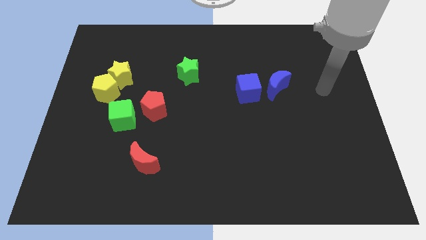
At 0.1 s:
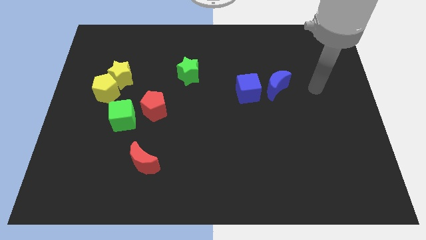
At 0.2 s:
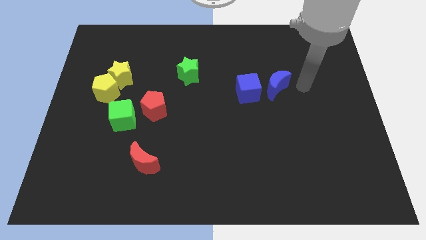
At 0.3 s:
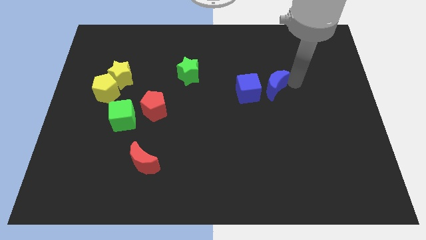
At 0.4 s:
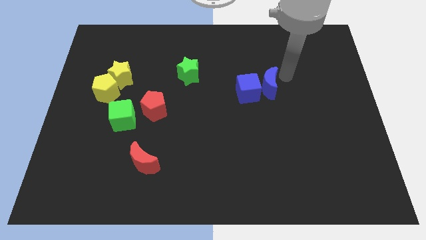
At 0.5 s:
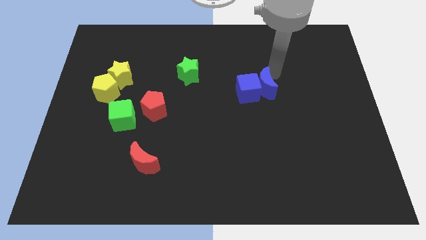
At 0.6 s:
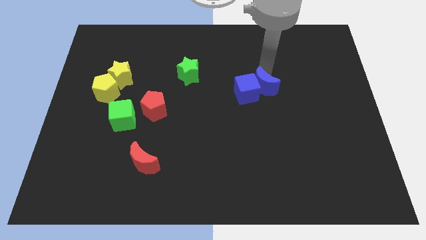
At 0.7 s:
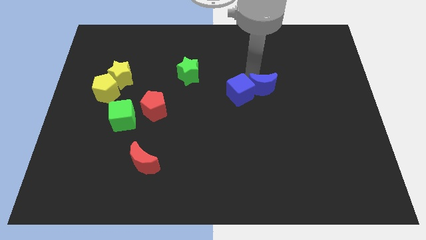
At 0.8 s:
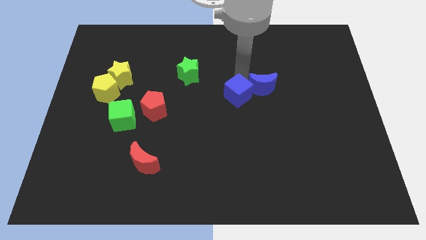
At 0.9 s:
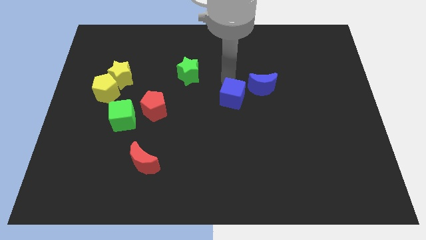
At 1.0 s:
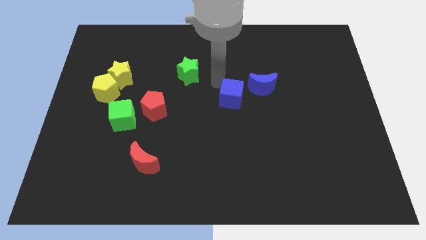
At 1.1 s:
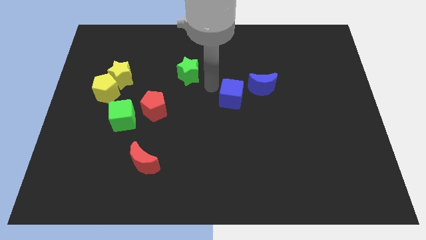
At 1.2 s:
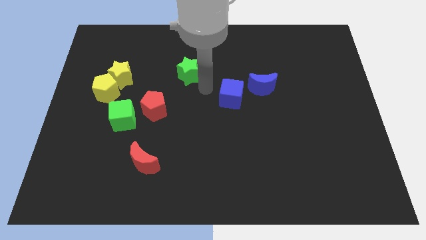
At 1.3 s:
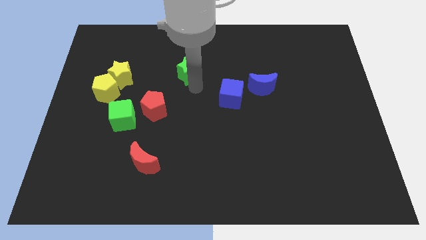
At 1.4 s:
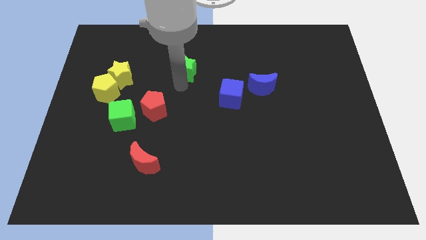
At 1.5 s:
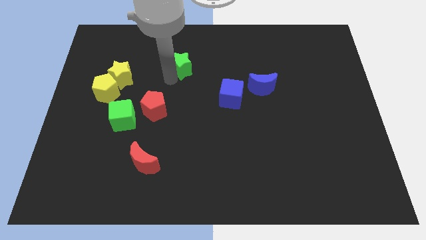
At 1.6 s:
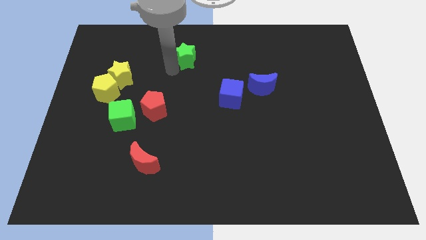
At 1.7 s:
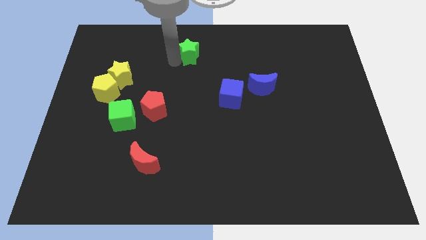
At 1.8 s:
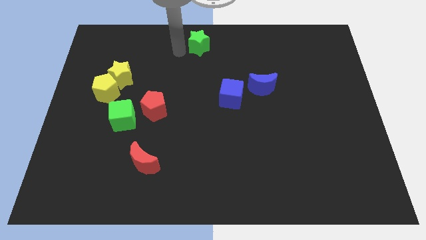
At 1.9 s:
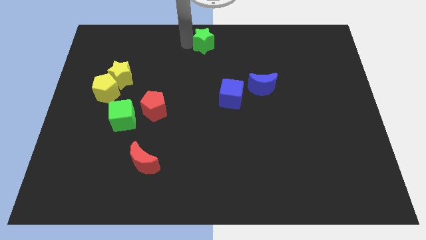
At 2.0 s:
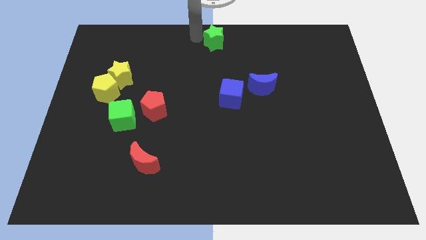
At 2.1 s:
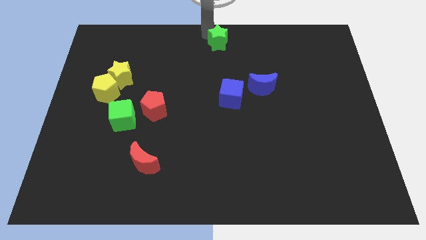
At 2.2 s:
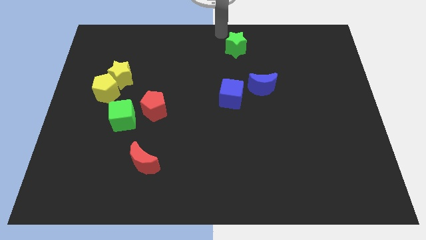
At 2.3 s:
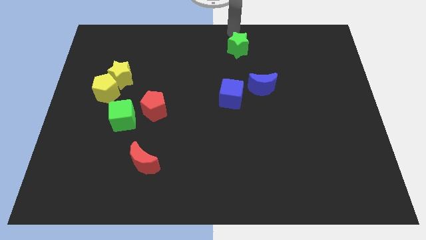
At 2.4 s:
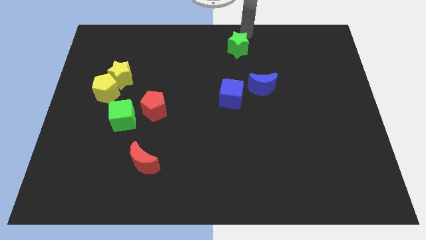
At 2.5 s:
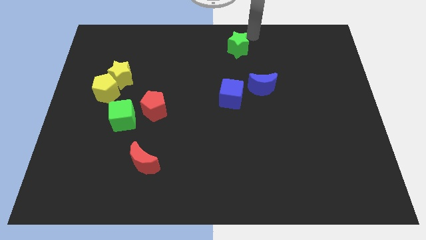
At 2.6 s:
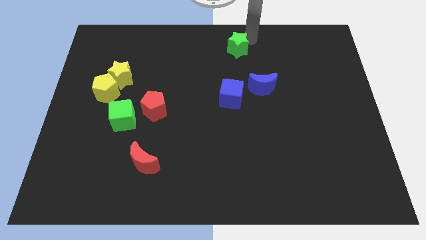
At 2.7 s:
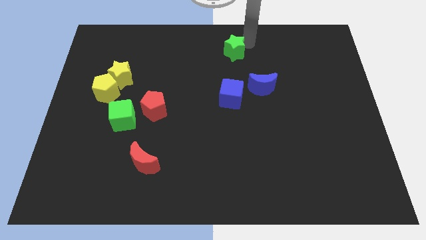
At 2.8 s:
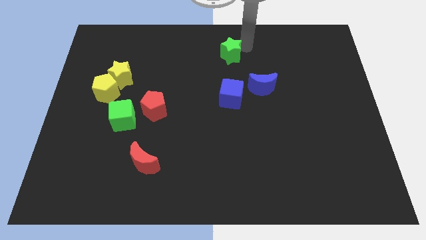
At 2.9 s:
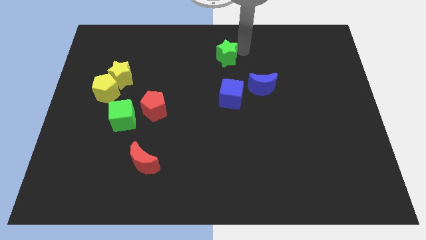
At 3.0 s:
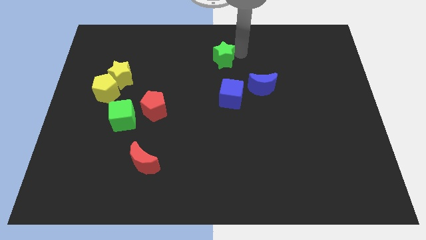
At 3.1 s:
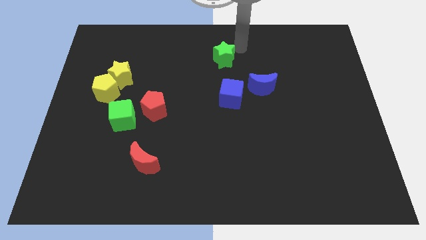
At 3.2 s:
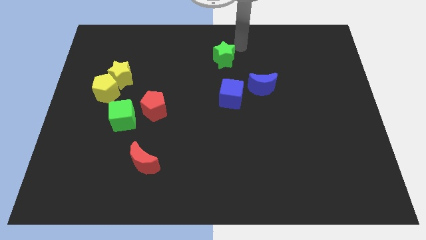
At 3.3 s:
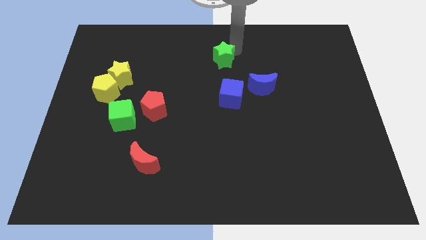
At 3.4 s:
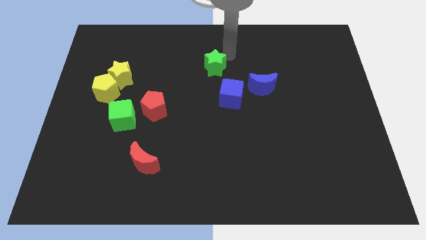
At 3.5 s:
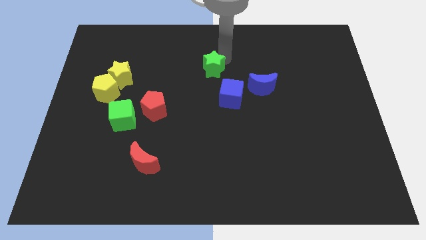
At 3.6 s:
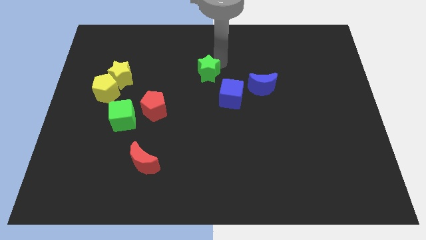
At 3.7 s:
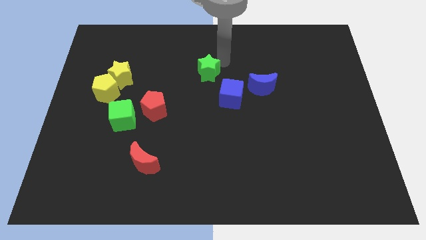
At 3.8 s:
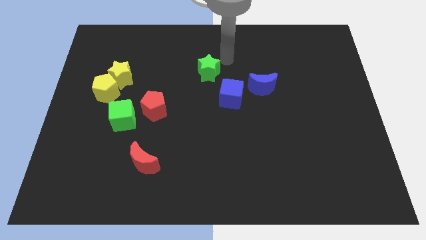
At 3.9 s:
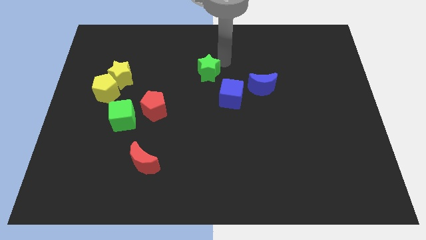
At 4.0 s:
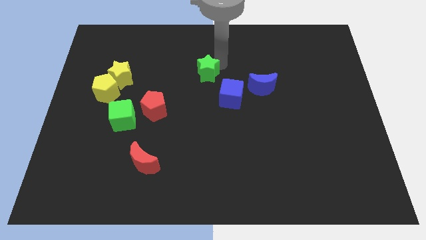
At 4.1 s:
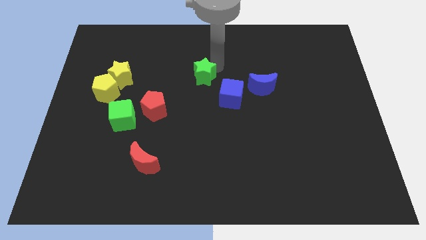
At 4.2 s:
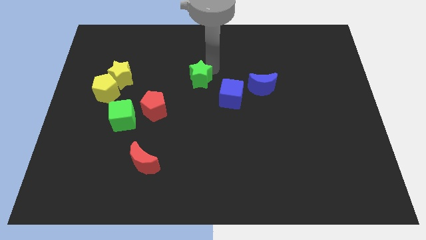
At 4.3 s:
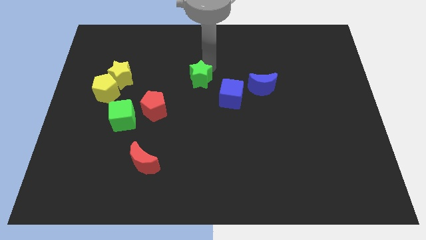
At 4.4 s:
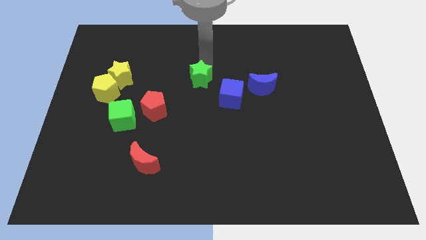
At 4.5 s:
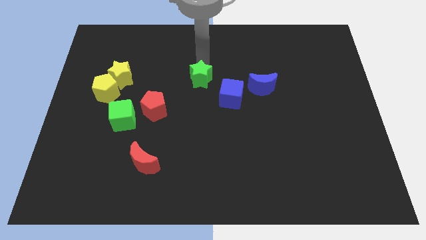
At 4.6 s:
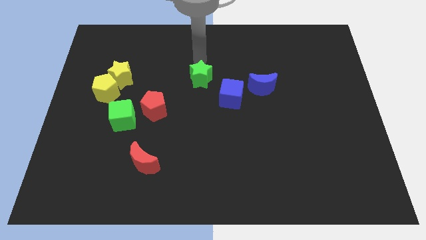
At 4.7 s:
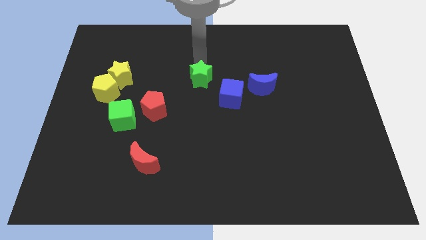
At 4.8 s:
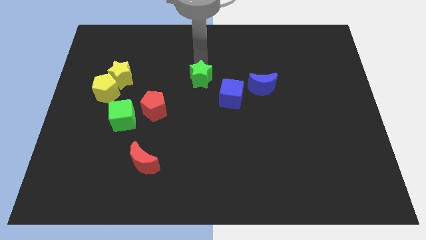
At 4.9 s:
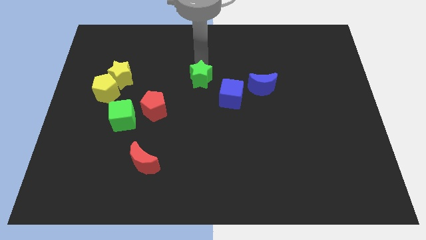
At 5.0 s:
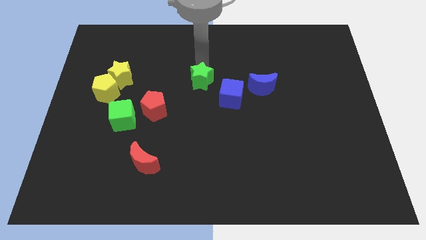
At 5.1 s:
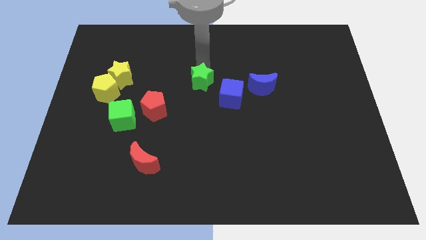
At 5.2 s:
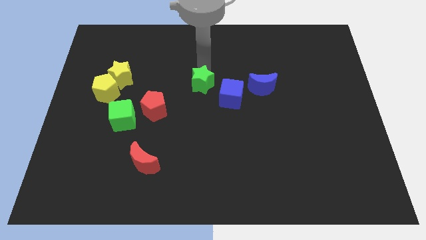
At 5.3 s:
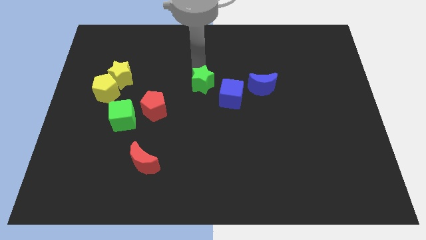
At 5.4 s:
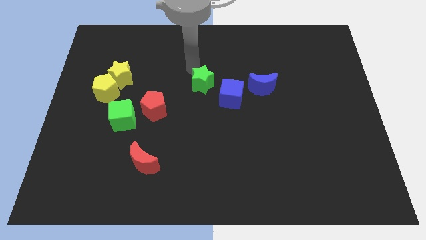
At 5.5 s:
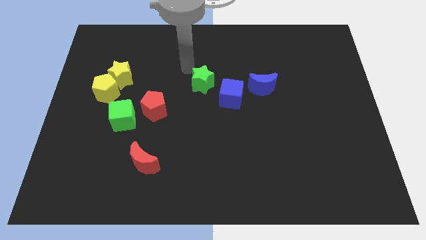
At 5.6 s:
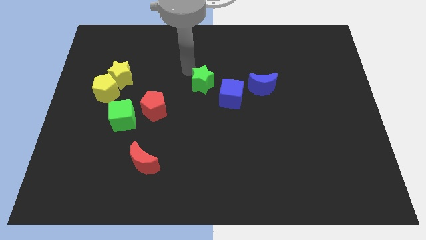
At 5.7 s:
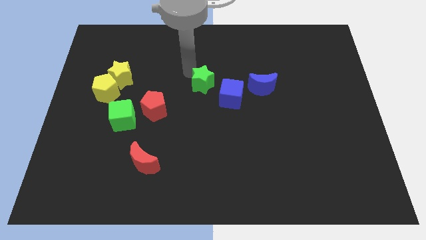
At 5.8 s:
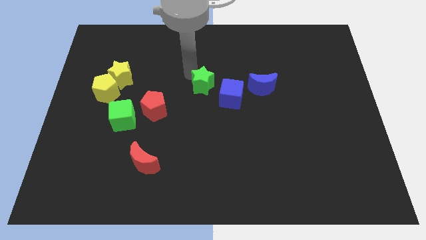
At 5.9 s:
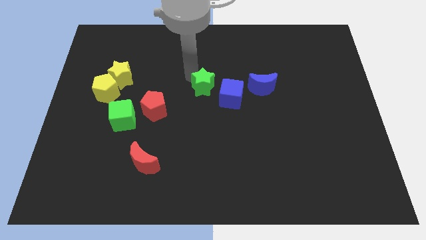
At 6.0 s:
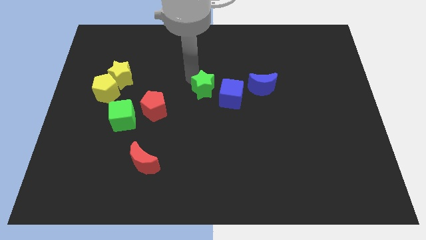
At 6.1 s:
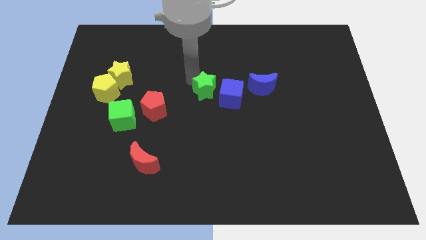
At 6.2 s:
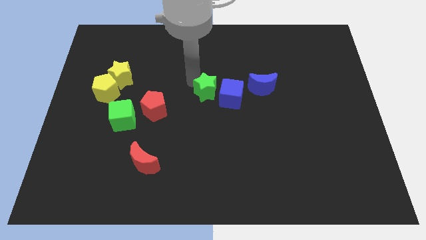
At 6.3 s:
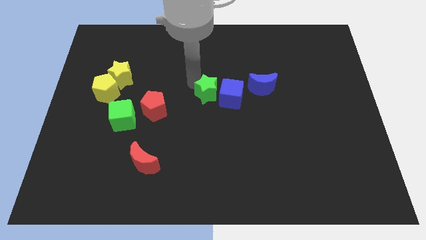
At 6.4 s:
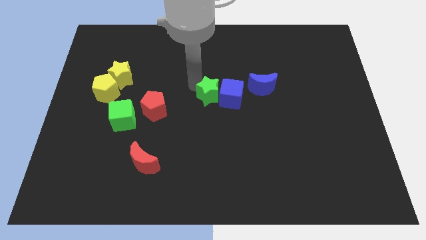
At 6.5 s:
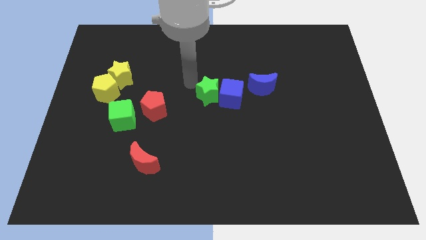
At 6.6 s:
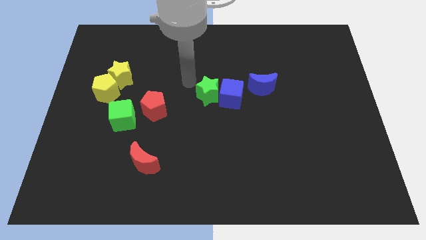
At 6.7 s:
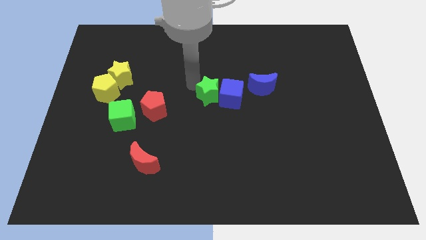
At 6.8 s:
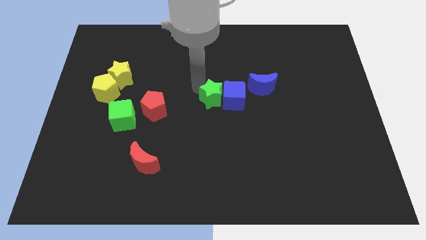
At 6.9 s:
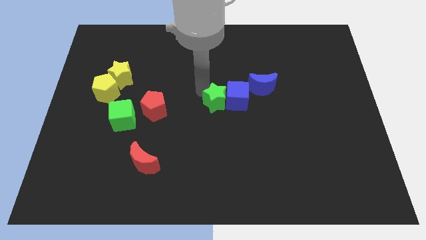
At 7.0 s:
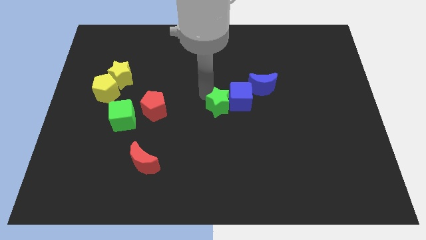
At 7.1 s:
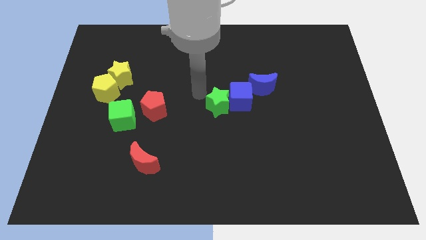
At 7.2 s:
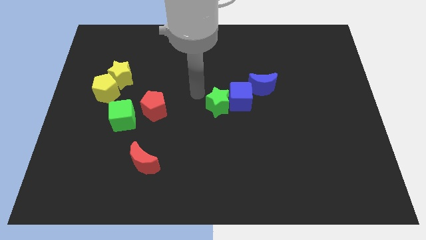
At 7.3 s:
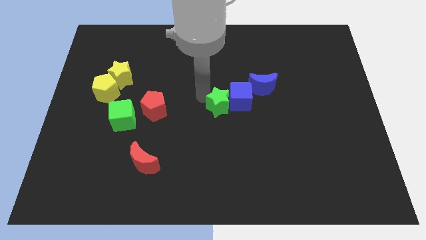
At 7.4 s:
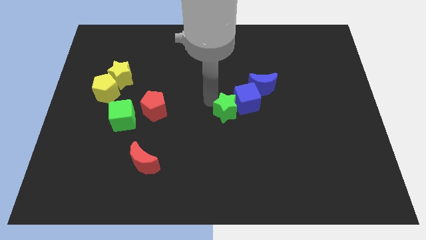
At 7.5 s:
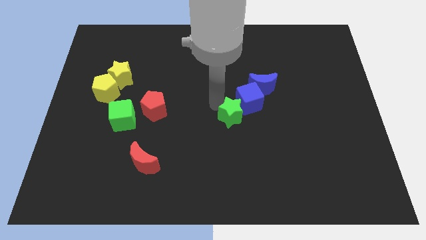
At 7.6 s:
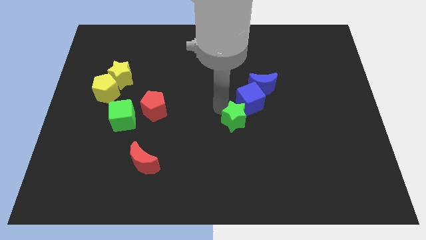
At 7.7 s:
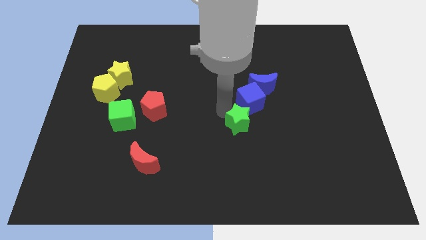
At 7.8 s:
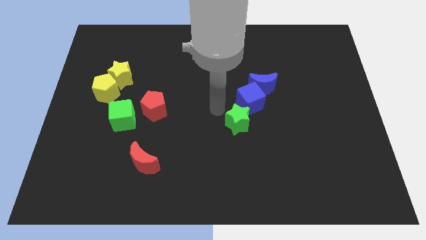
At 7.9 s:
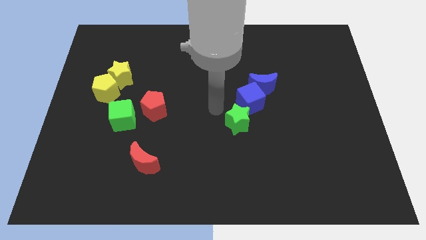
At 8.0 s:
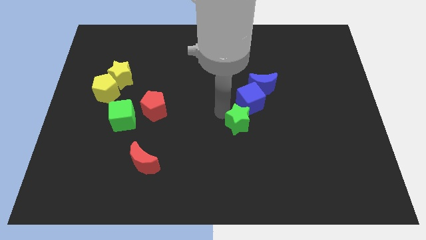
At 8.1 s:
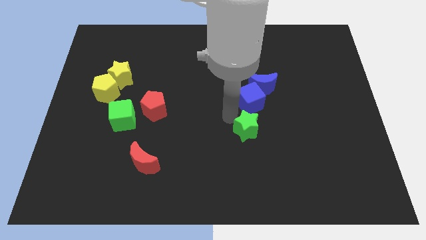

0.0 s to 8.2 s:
move the green star diagonally down and to the right
